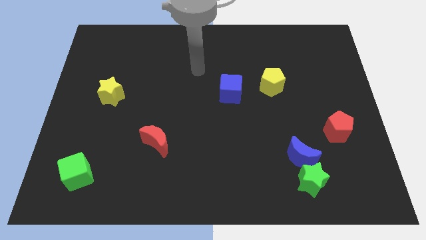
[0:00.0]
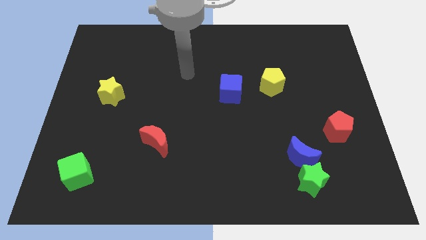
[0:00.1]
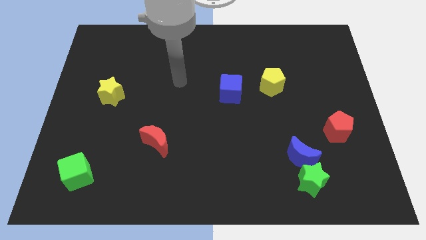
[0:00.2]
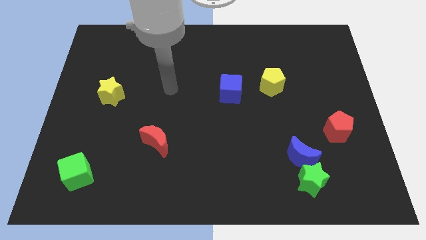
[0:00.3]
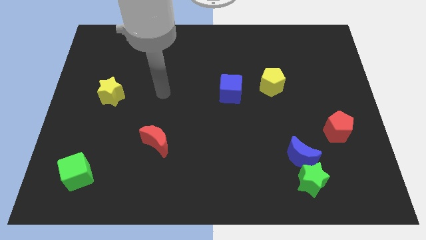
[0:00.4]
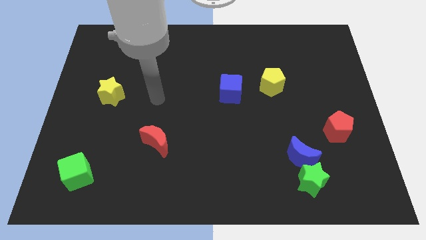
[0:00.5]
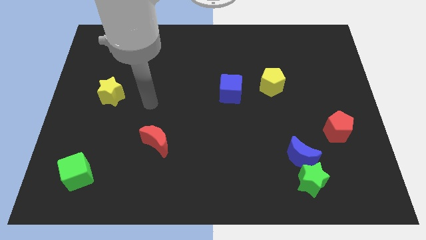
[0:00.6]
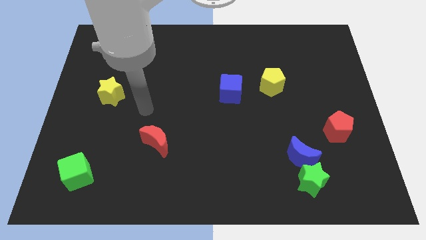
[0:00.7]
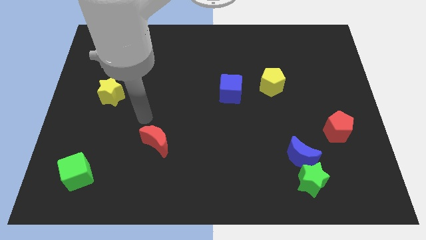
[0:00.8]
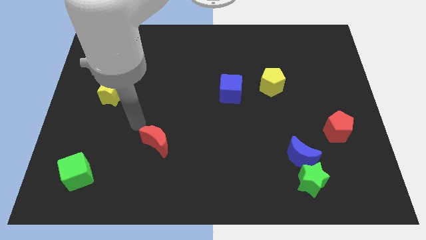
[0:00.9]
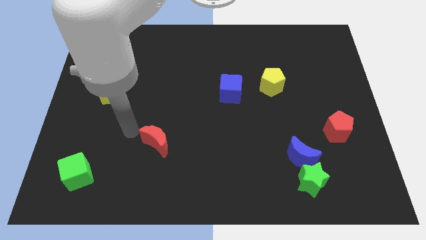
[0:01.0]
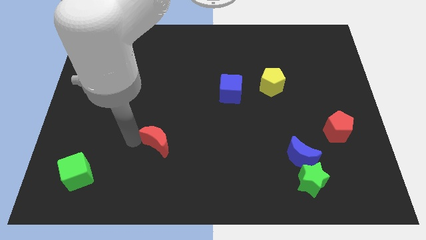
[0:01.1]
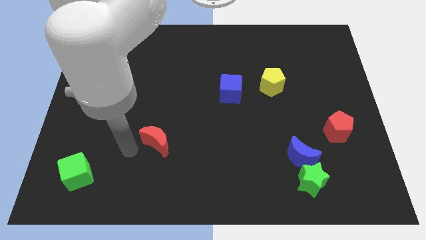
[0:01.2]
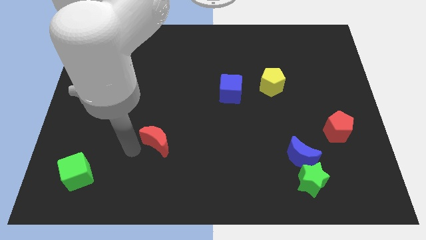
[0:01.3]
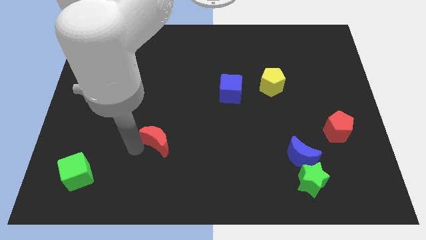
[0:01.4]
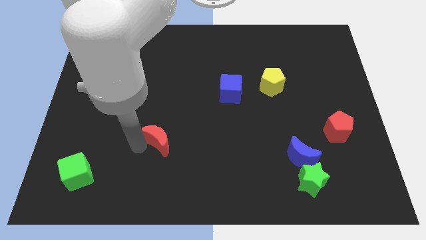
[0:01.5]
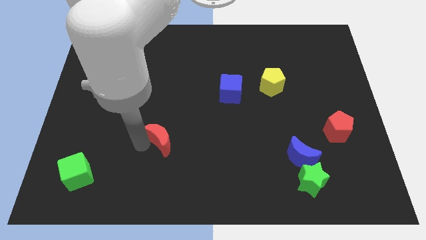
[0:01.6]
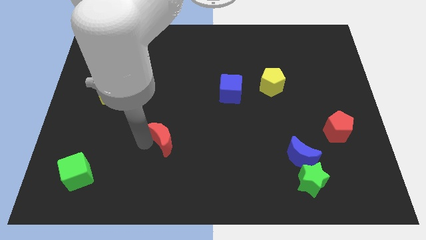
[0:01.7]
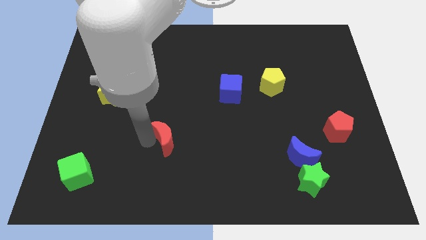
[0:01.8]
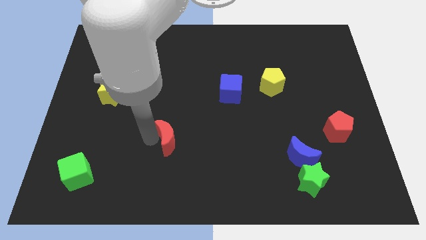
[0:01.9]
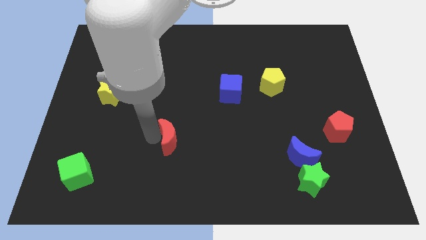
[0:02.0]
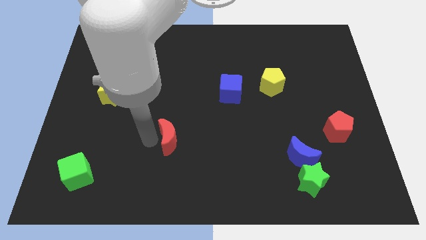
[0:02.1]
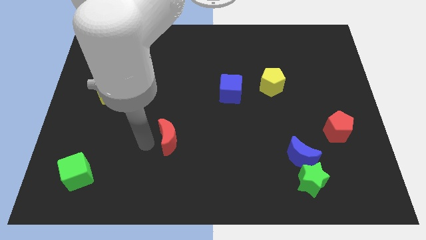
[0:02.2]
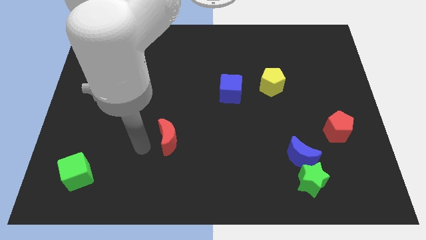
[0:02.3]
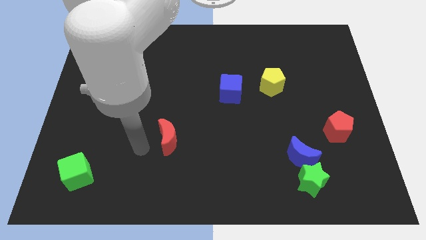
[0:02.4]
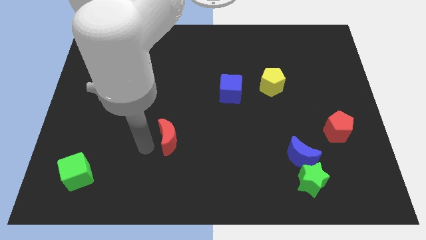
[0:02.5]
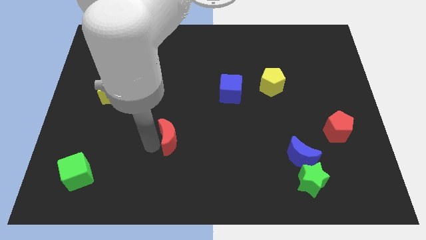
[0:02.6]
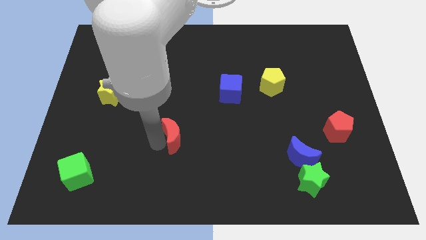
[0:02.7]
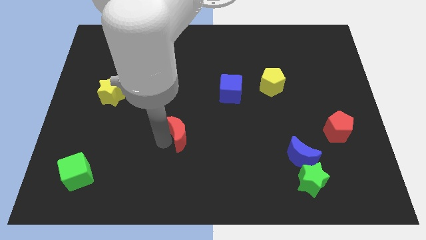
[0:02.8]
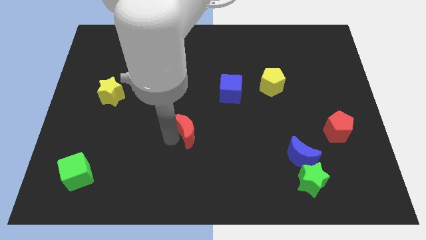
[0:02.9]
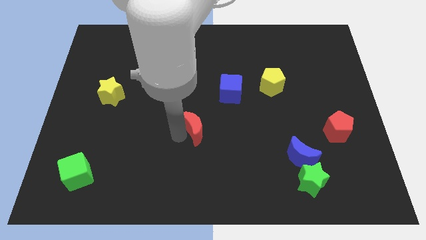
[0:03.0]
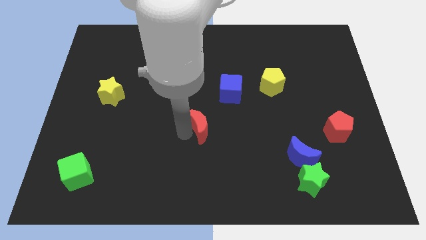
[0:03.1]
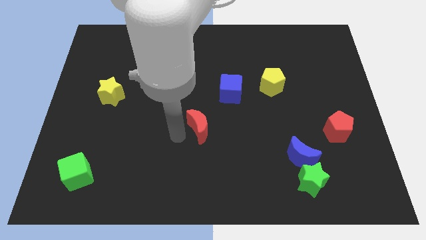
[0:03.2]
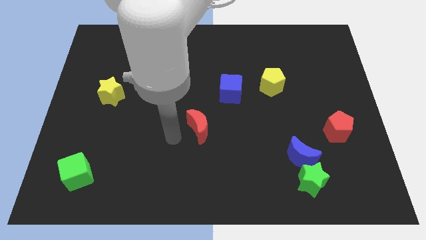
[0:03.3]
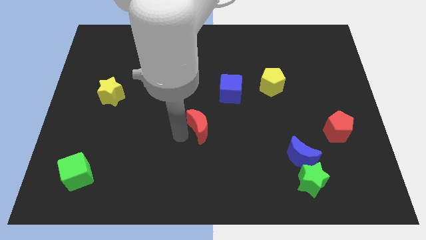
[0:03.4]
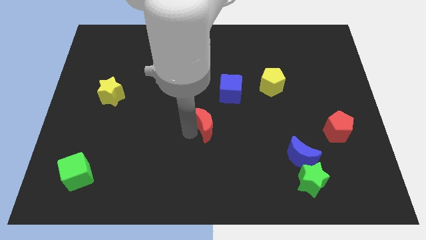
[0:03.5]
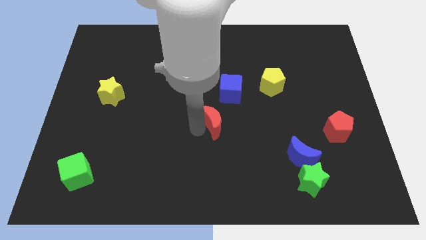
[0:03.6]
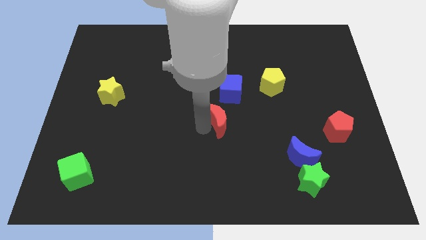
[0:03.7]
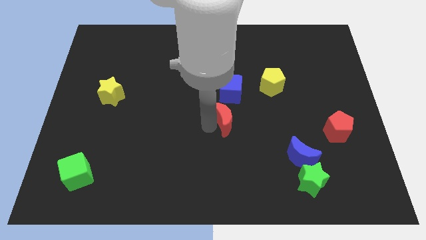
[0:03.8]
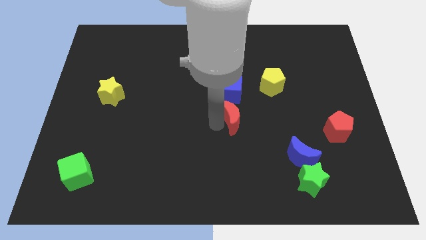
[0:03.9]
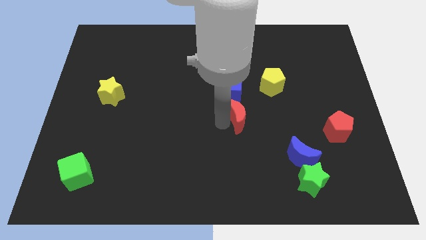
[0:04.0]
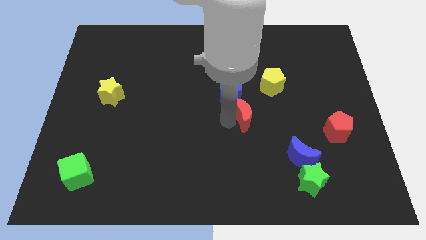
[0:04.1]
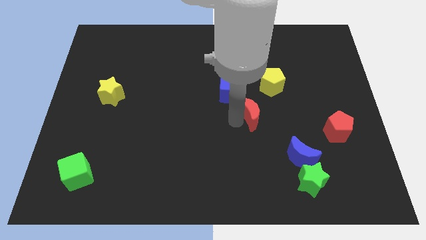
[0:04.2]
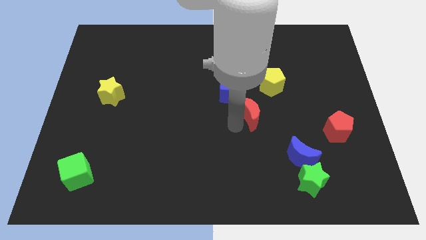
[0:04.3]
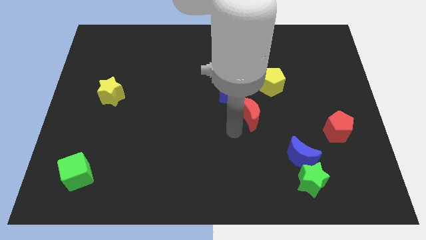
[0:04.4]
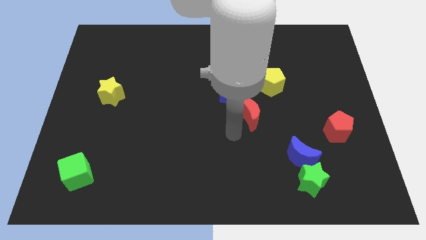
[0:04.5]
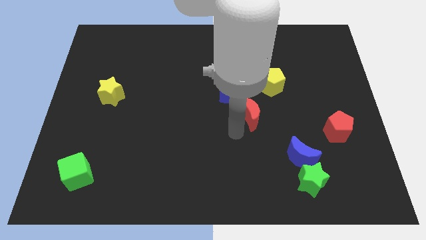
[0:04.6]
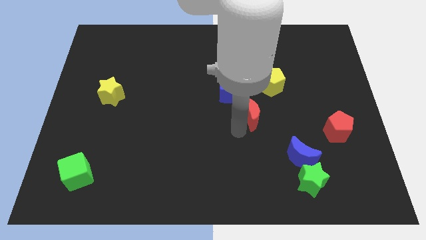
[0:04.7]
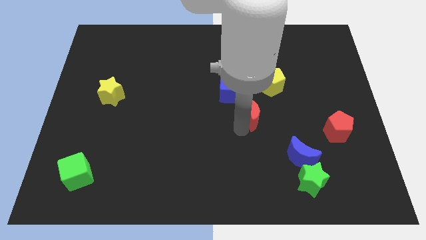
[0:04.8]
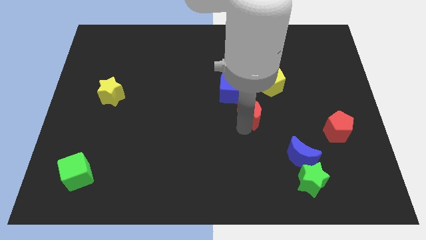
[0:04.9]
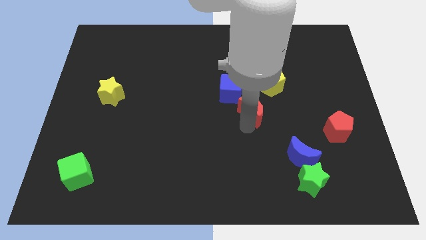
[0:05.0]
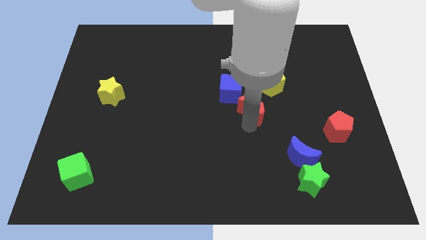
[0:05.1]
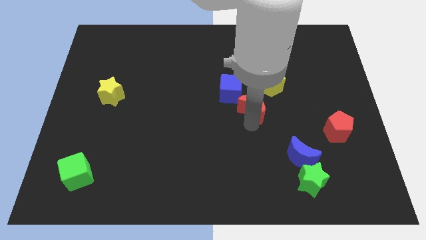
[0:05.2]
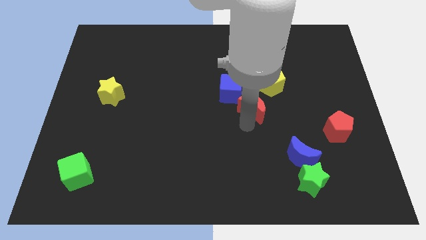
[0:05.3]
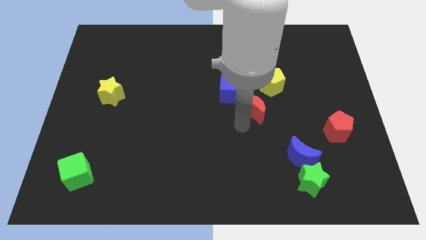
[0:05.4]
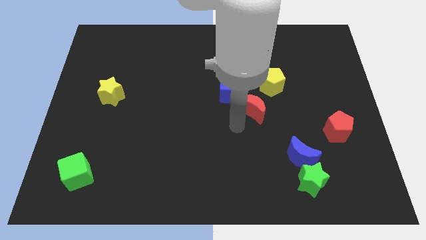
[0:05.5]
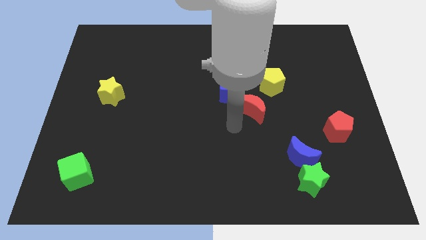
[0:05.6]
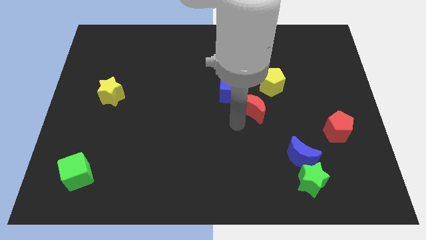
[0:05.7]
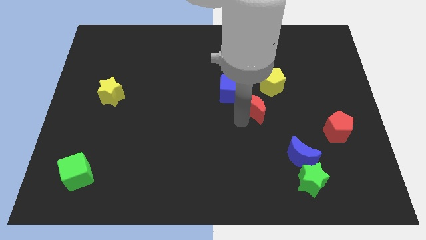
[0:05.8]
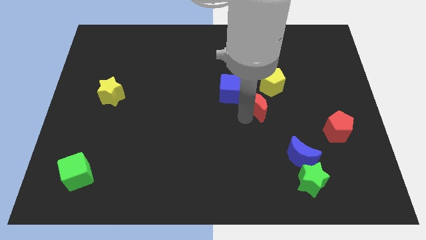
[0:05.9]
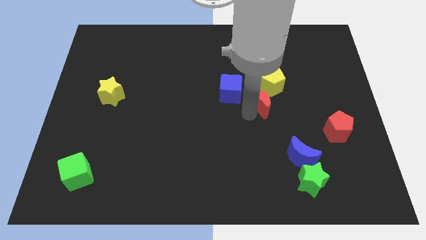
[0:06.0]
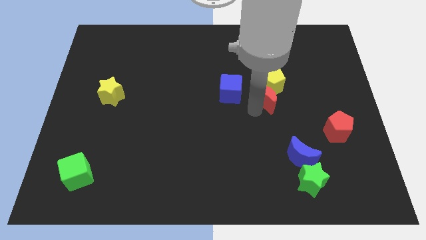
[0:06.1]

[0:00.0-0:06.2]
move the red moon next to the yellow pentagon

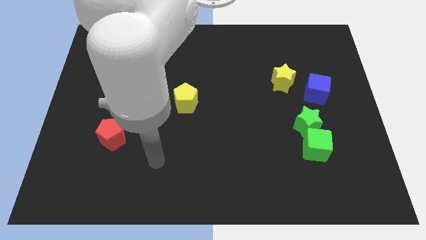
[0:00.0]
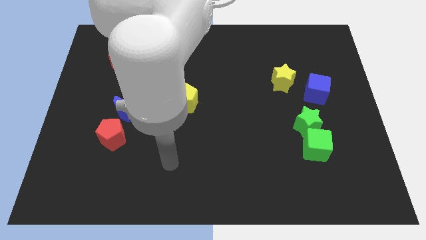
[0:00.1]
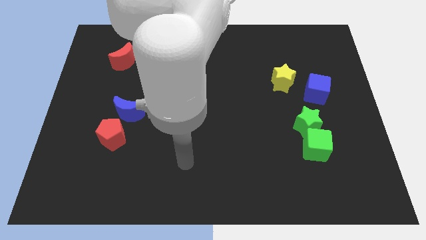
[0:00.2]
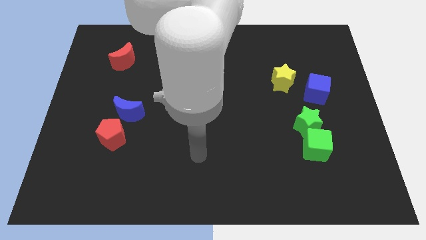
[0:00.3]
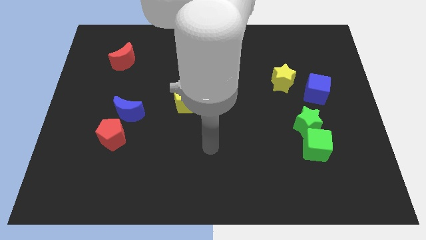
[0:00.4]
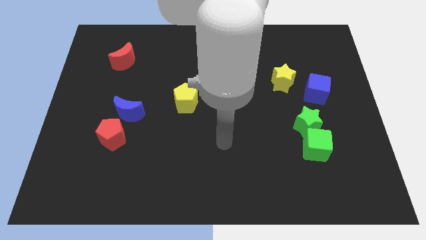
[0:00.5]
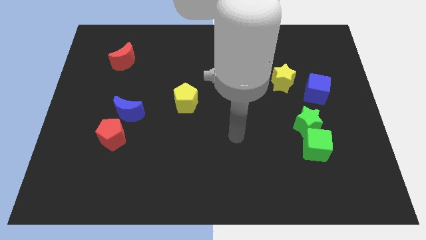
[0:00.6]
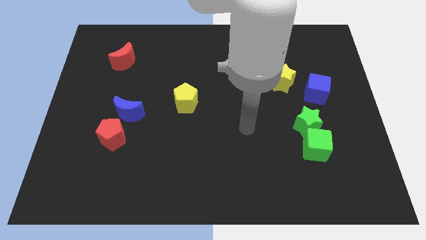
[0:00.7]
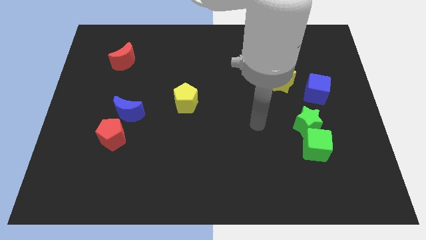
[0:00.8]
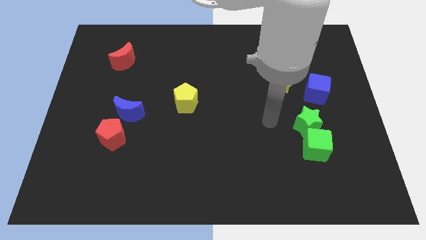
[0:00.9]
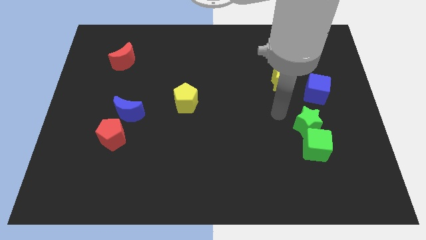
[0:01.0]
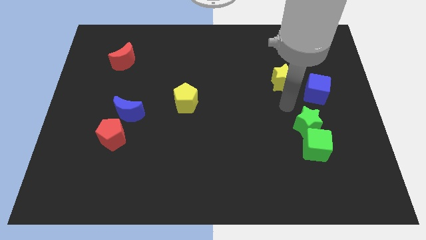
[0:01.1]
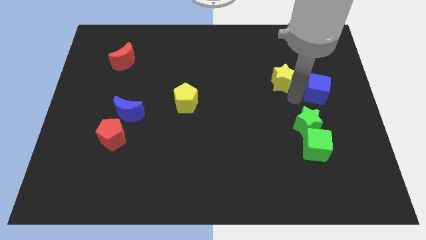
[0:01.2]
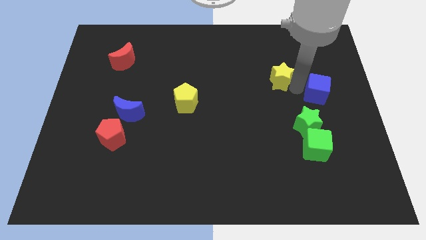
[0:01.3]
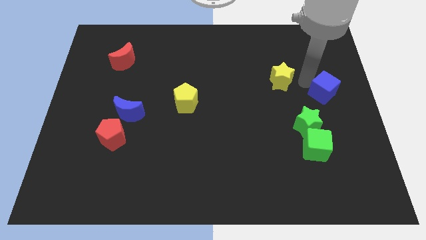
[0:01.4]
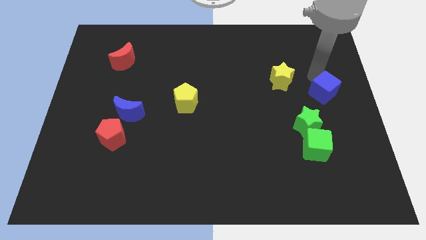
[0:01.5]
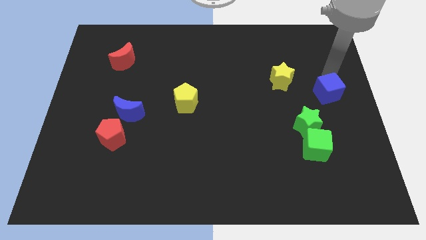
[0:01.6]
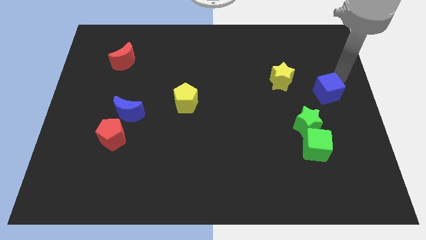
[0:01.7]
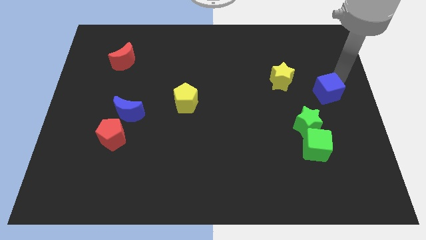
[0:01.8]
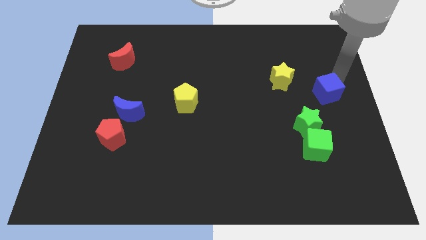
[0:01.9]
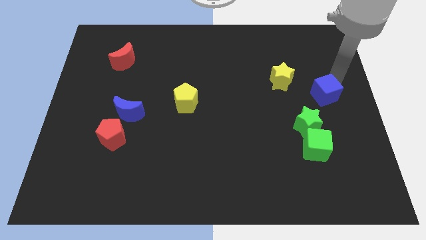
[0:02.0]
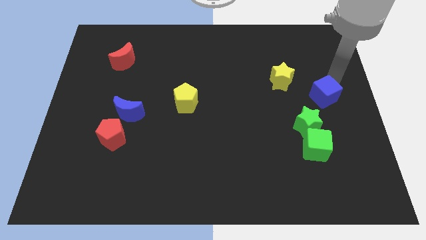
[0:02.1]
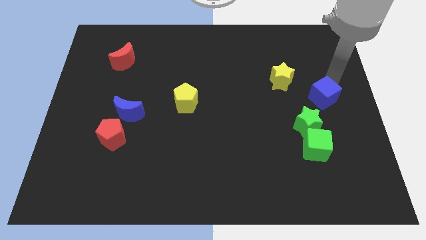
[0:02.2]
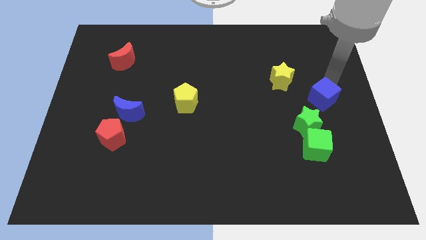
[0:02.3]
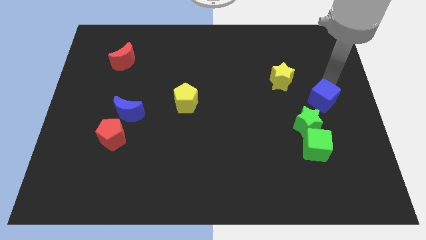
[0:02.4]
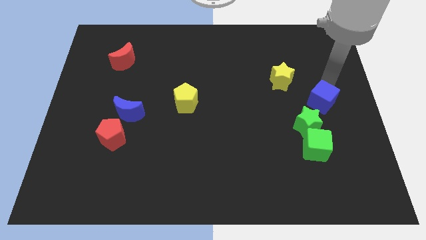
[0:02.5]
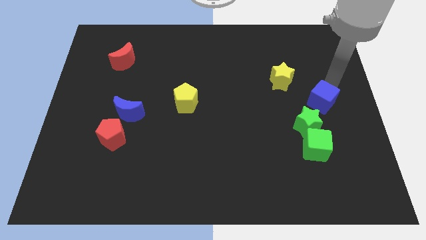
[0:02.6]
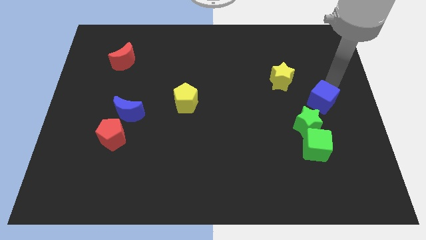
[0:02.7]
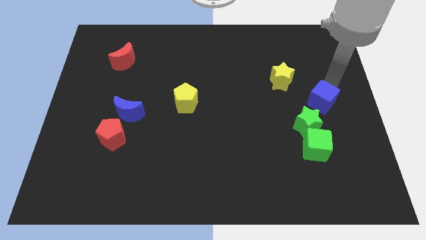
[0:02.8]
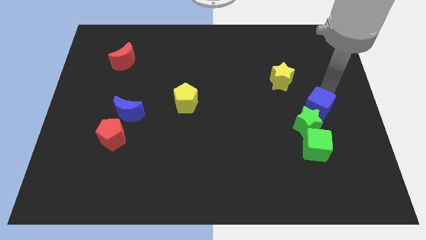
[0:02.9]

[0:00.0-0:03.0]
push the blue cube close to the green star
